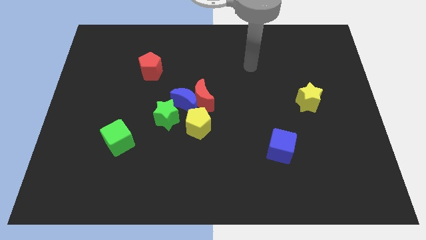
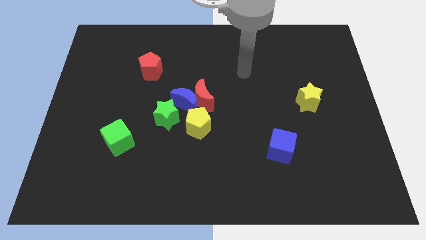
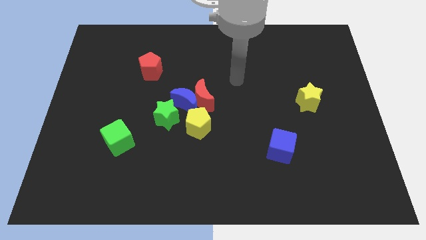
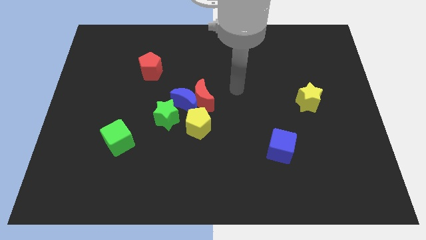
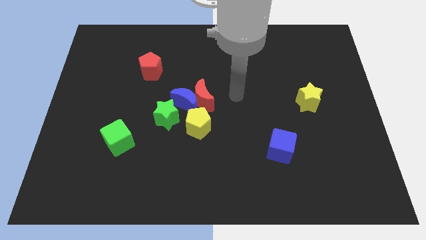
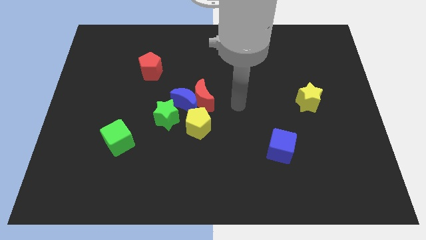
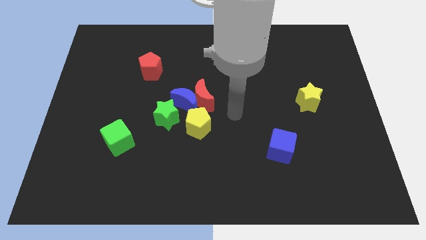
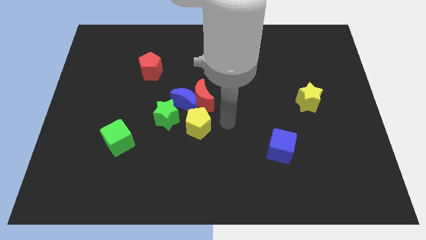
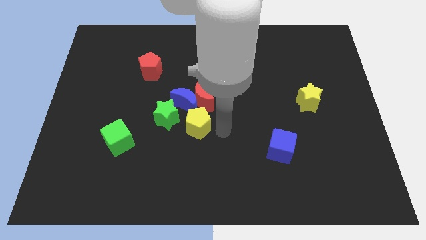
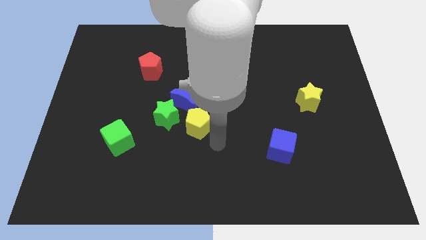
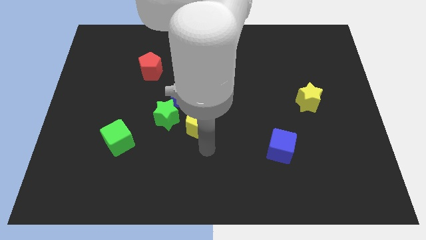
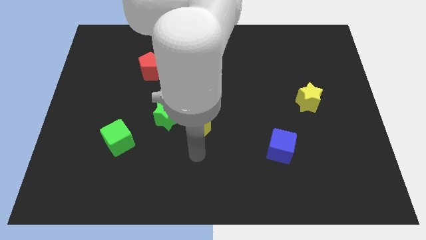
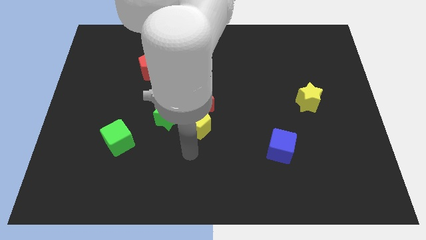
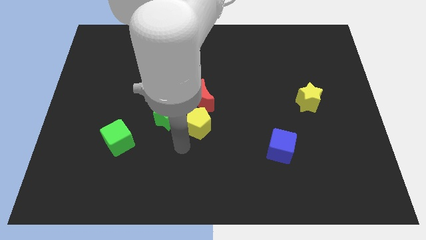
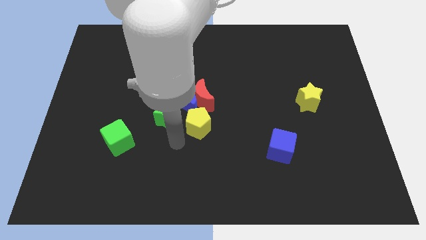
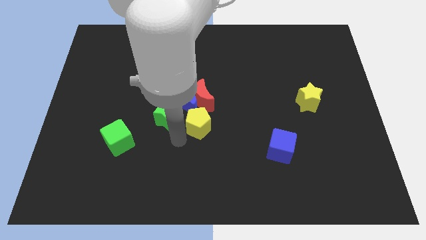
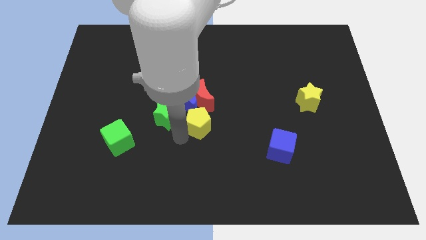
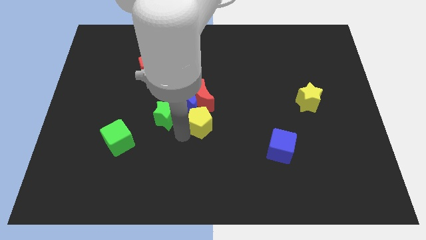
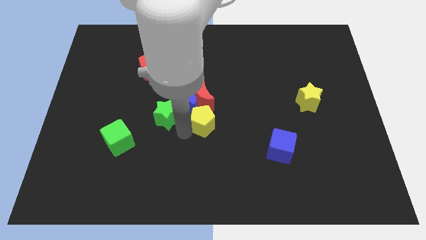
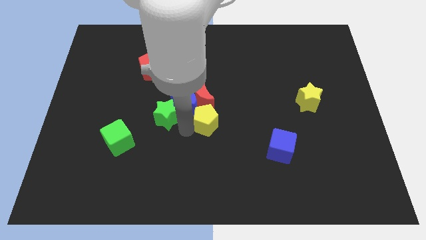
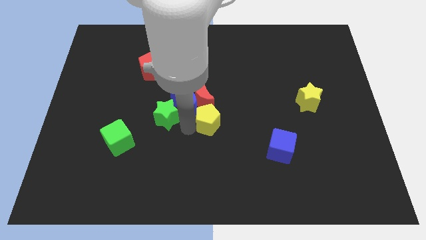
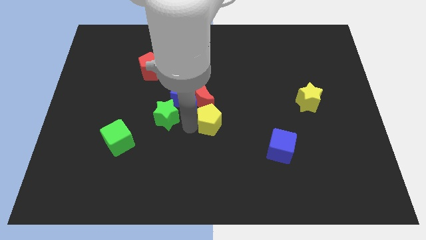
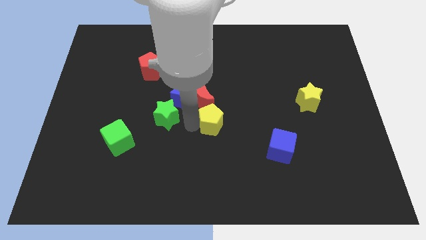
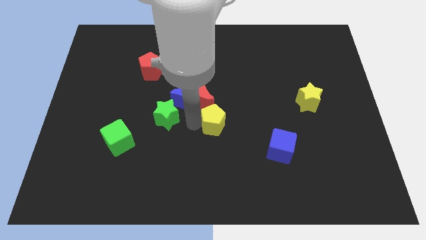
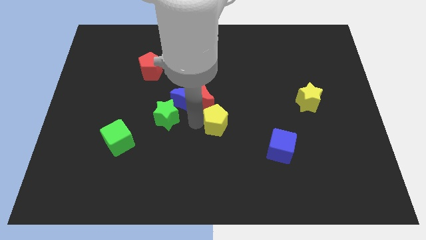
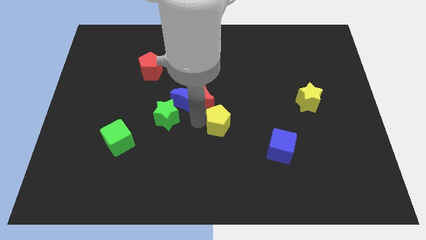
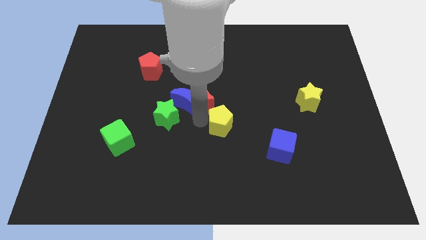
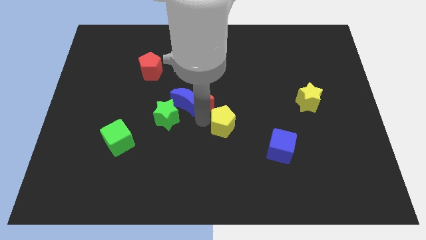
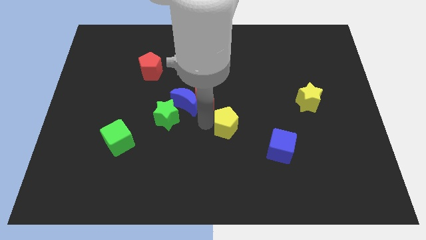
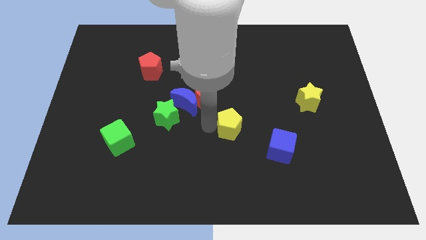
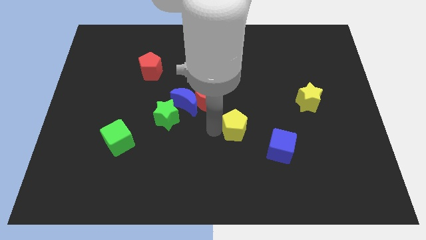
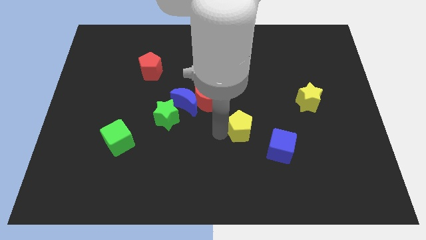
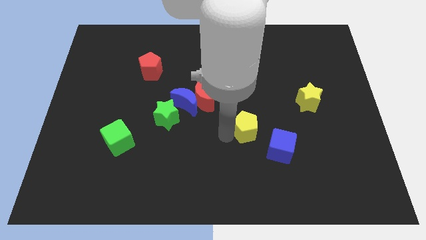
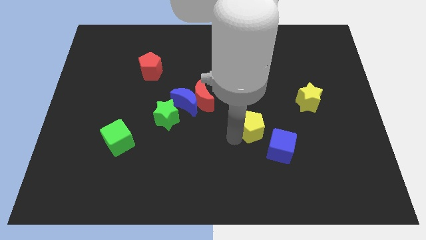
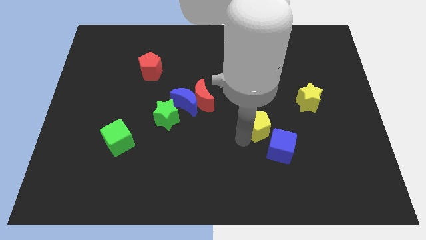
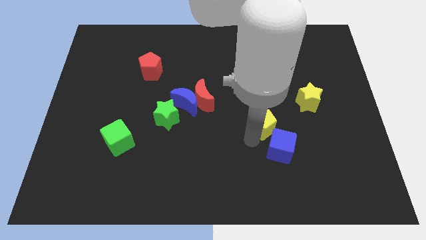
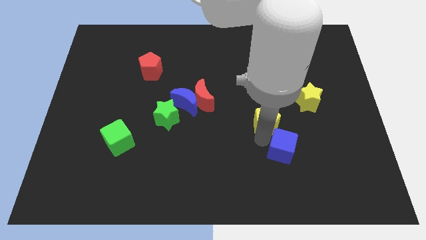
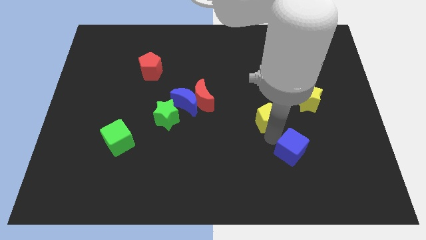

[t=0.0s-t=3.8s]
push the yellow pentagon up and right diagonally somewhat

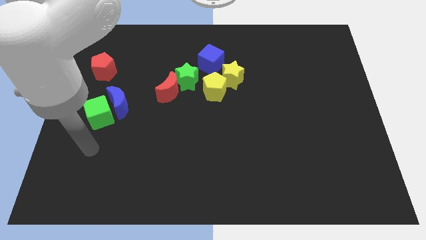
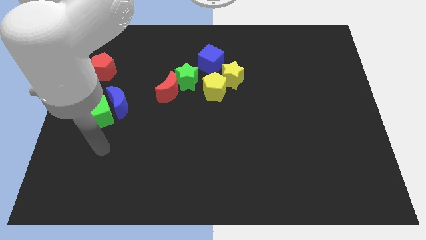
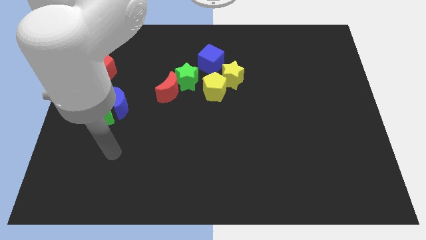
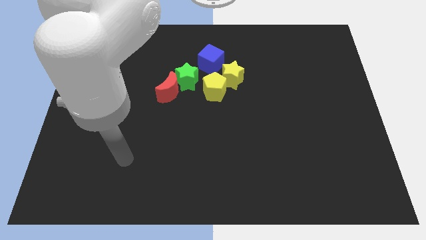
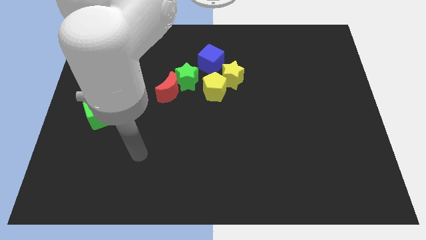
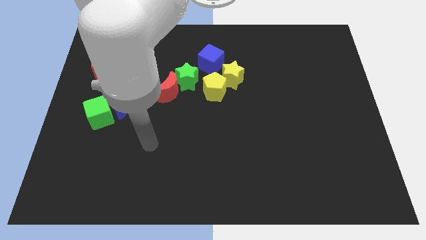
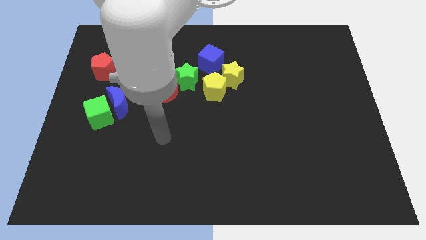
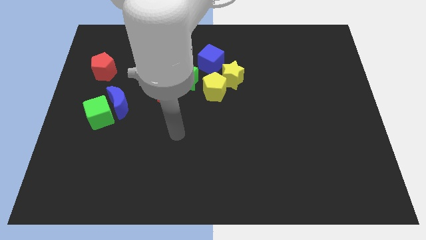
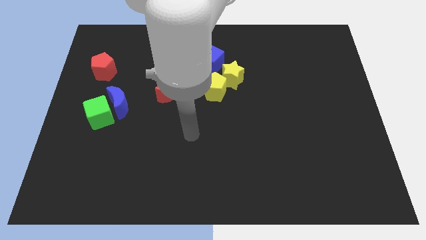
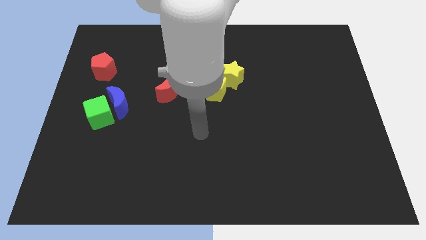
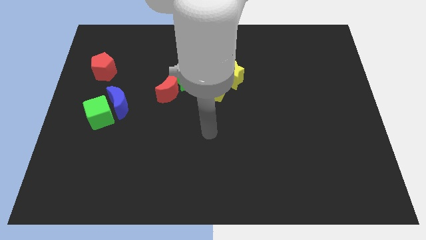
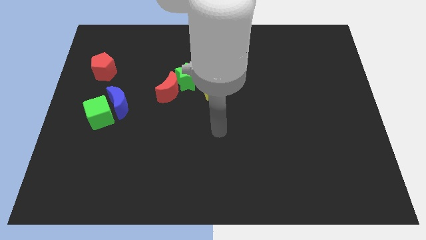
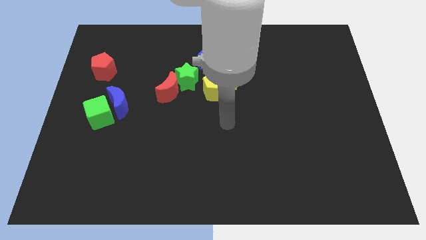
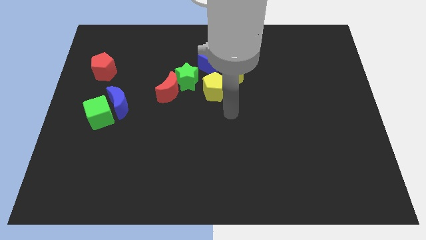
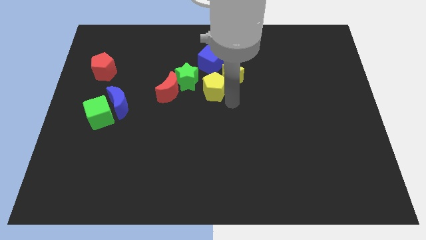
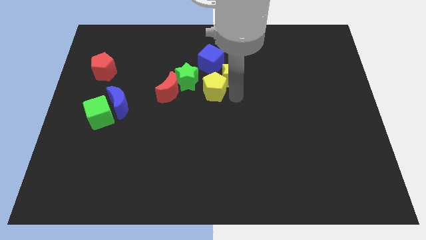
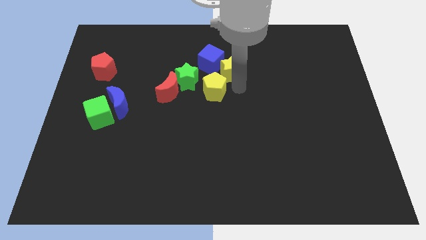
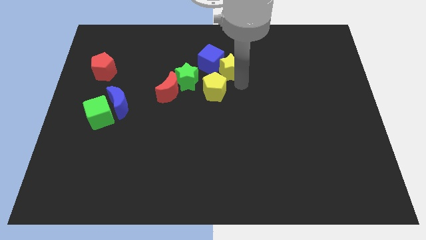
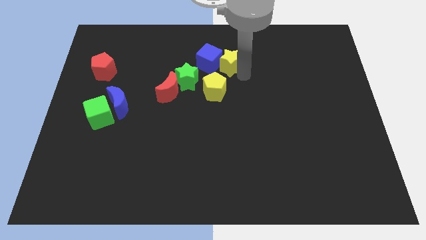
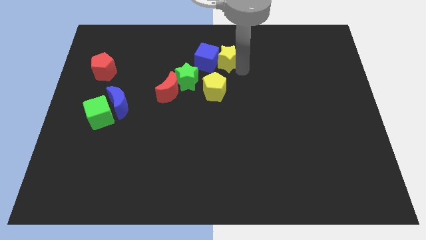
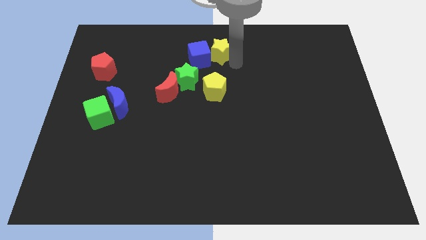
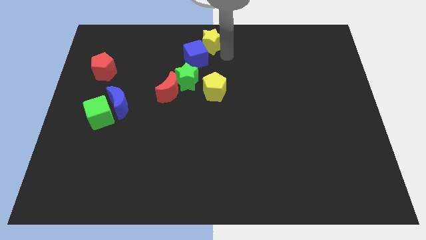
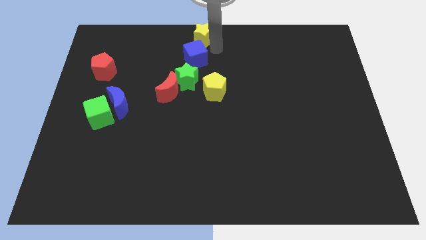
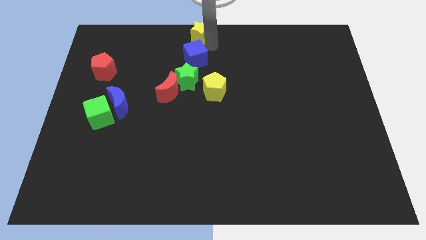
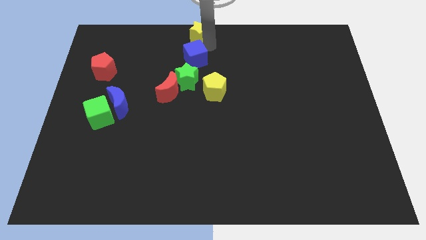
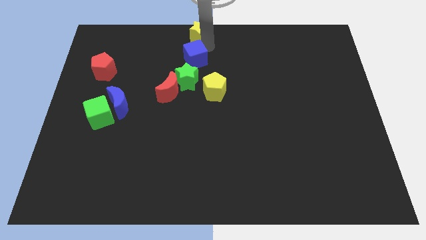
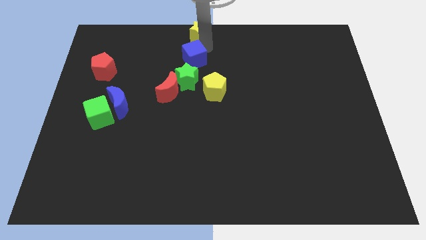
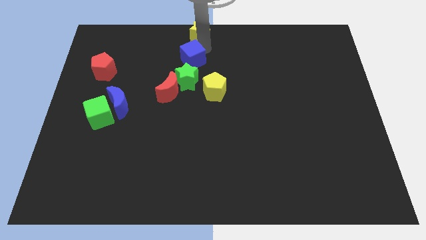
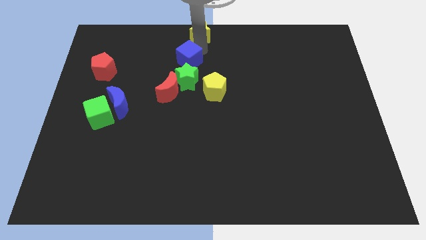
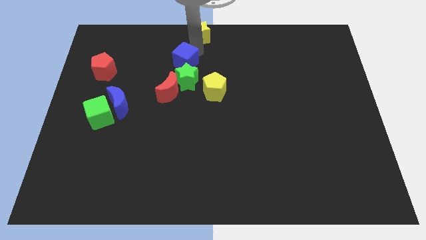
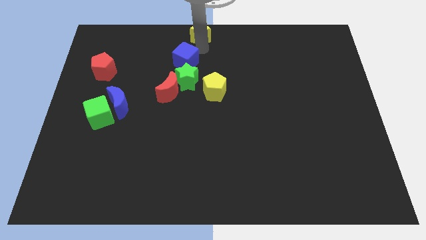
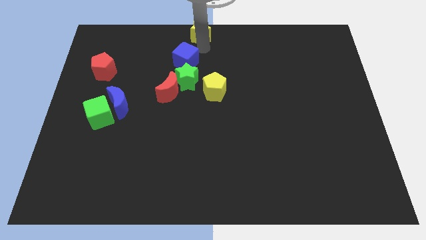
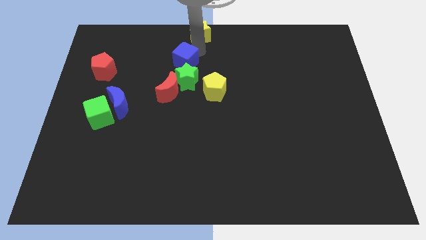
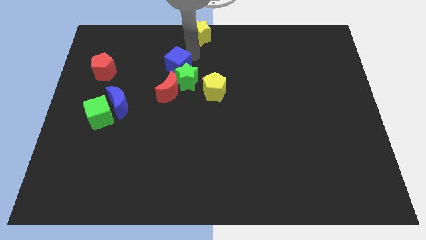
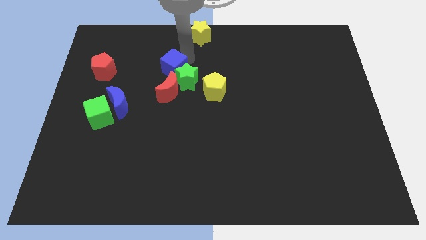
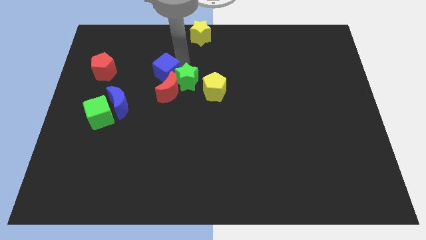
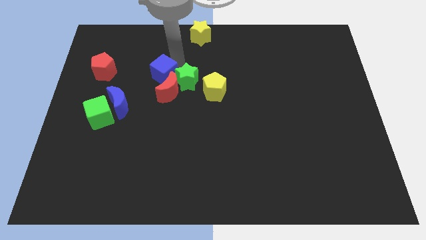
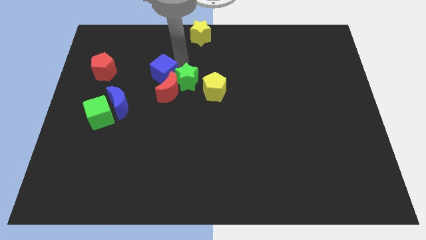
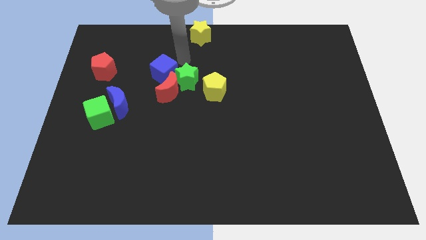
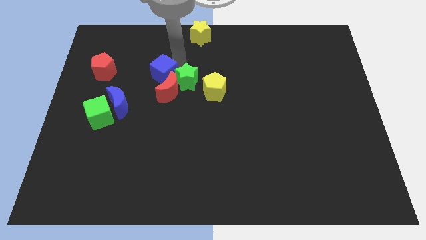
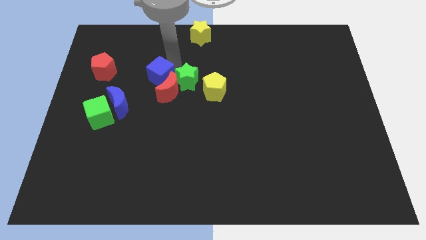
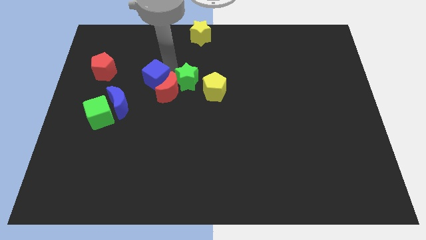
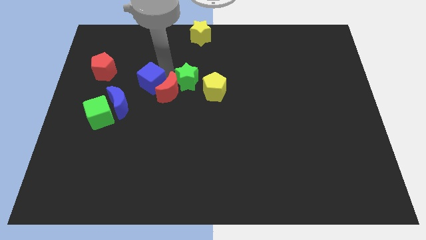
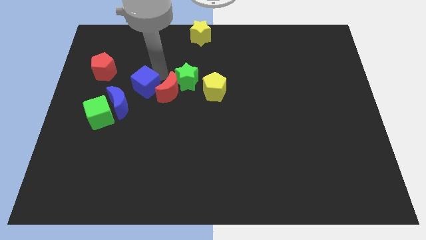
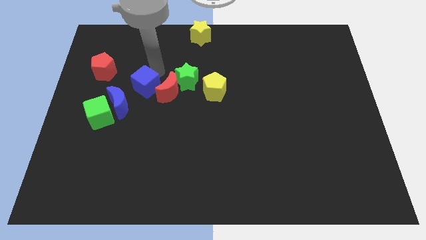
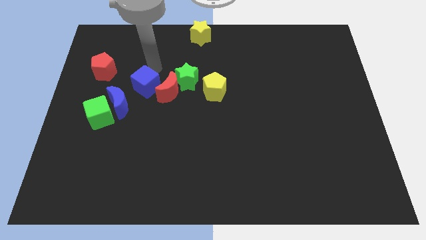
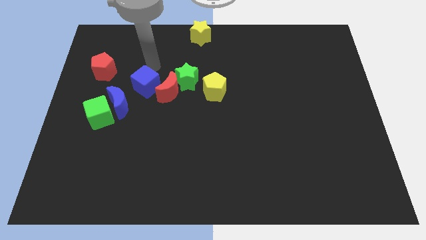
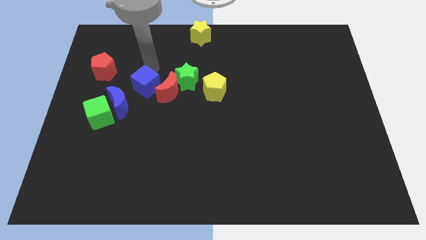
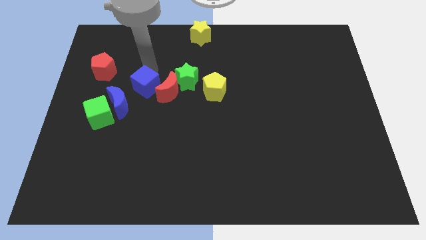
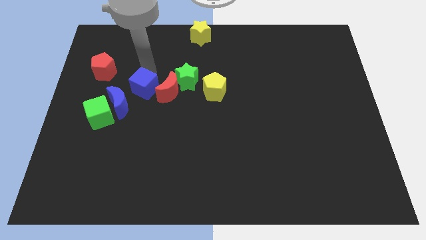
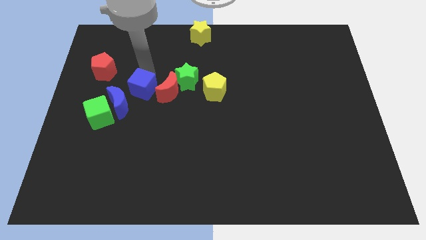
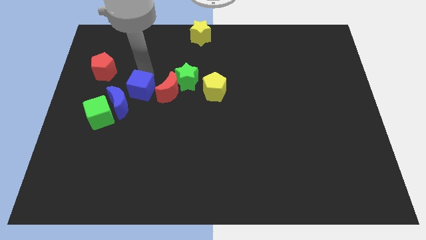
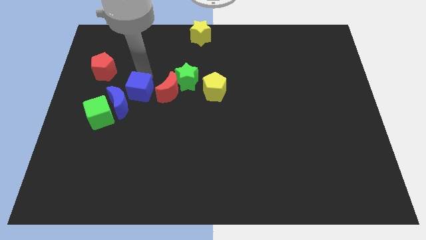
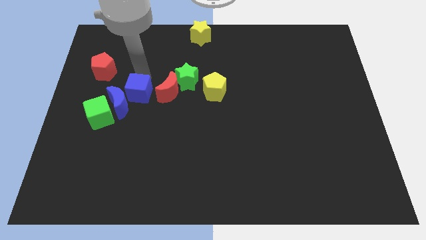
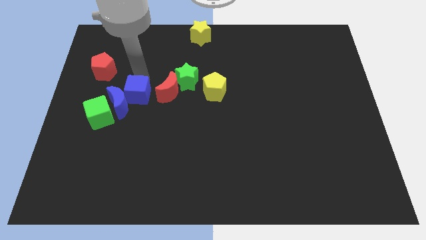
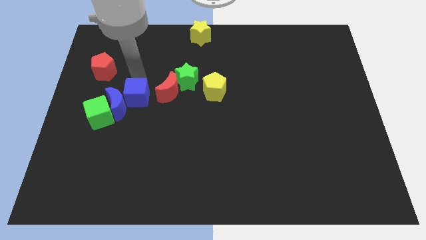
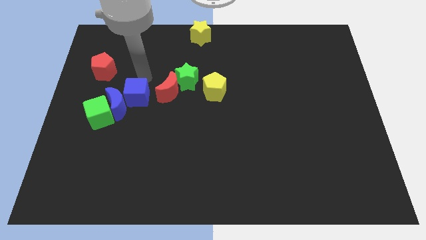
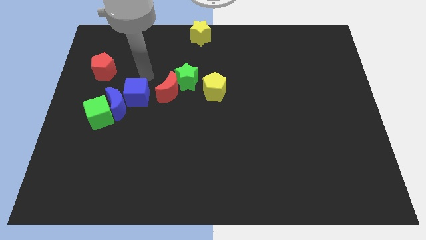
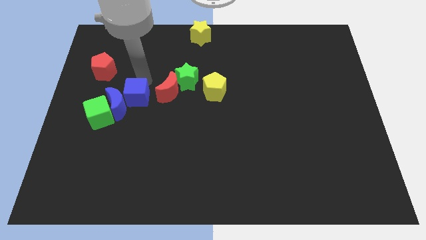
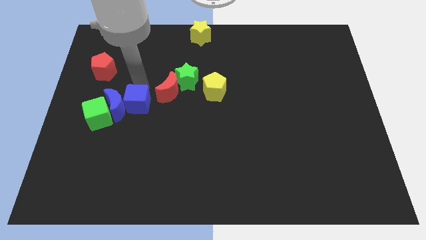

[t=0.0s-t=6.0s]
move the blue cube downwards and then left
